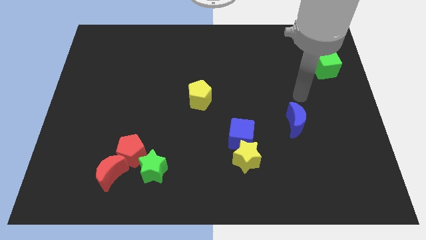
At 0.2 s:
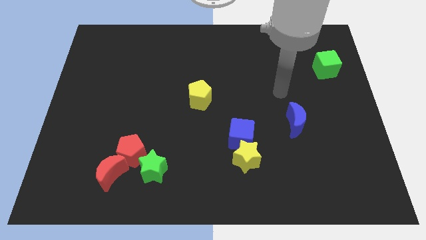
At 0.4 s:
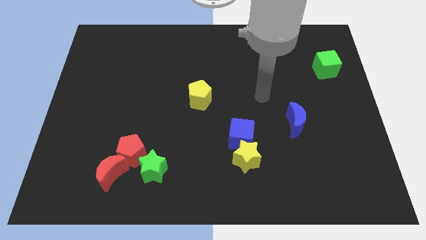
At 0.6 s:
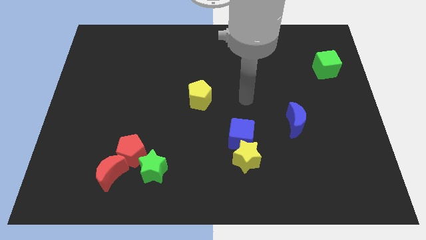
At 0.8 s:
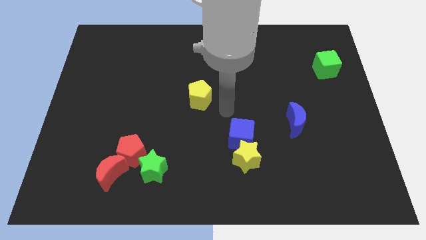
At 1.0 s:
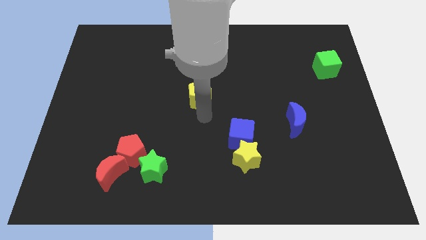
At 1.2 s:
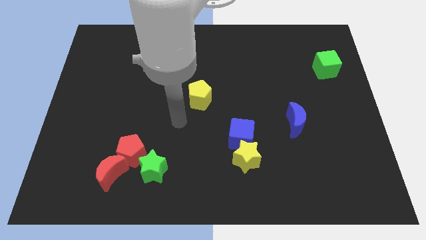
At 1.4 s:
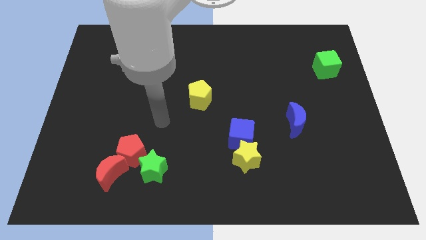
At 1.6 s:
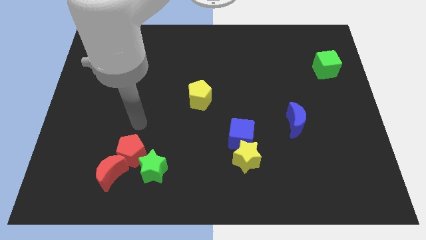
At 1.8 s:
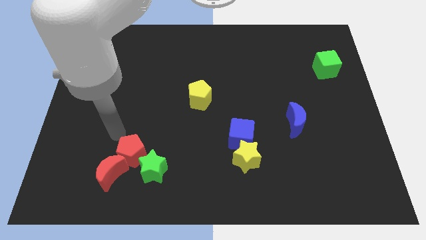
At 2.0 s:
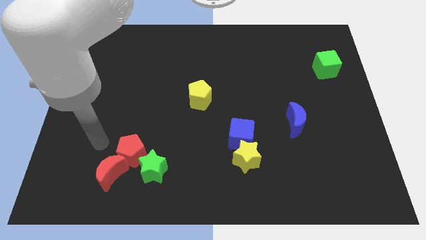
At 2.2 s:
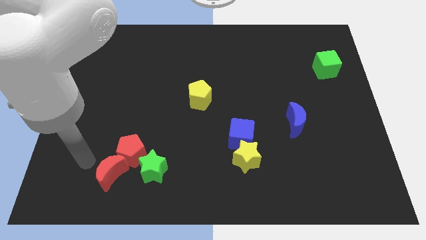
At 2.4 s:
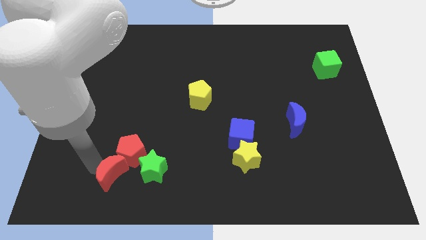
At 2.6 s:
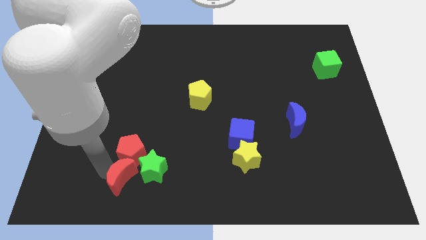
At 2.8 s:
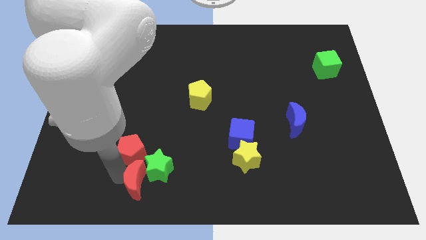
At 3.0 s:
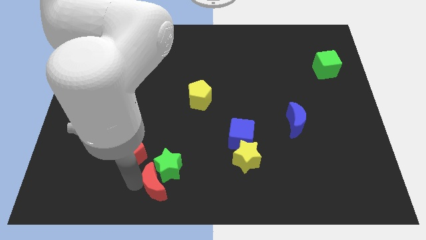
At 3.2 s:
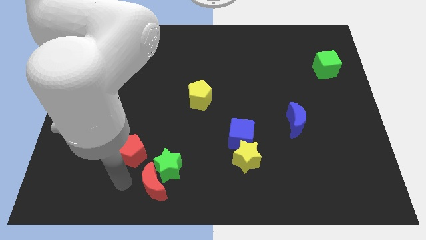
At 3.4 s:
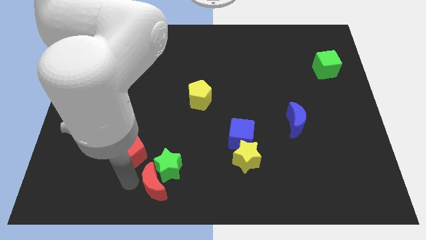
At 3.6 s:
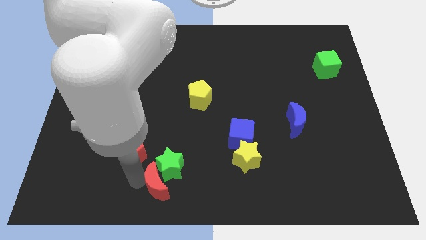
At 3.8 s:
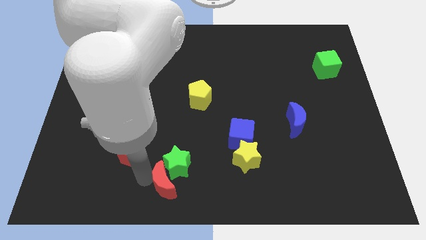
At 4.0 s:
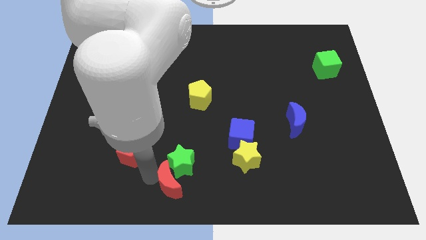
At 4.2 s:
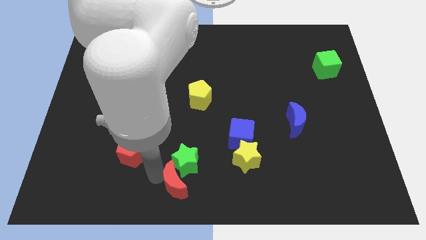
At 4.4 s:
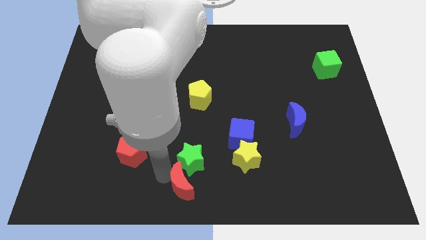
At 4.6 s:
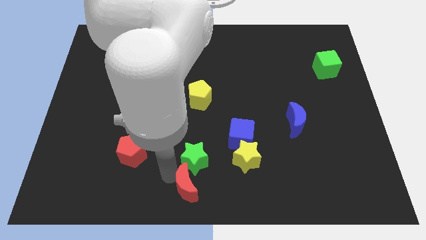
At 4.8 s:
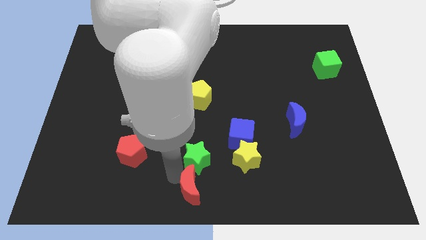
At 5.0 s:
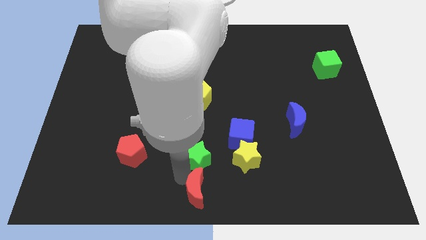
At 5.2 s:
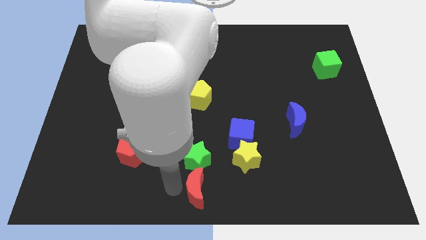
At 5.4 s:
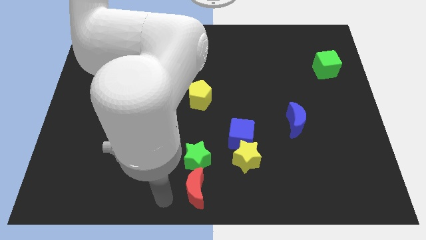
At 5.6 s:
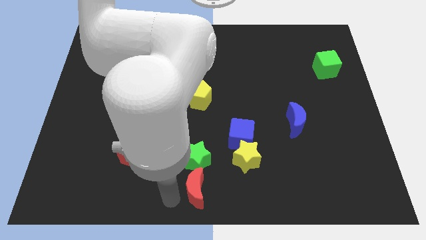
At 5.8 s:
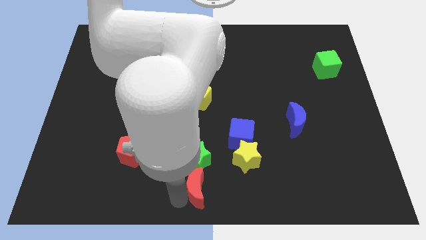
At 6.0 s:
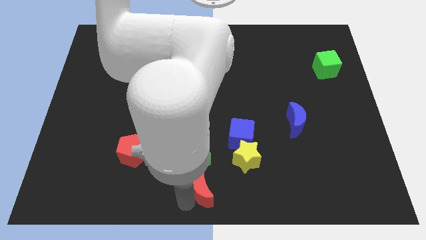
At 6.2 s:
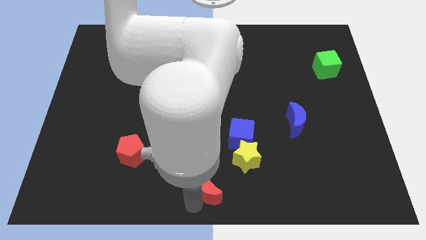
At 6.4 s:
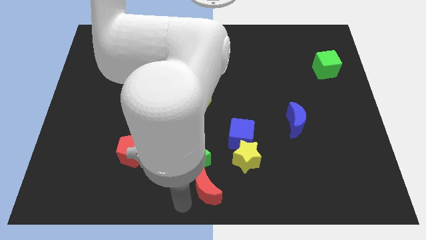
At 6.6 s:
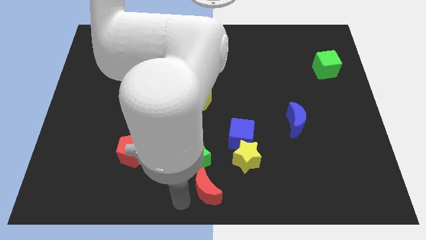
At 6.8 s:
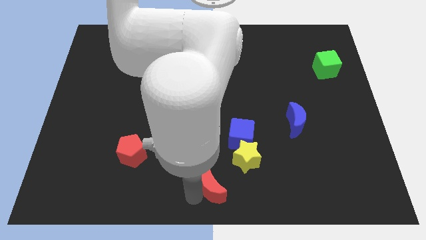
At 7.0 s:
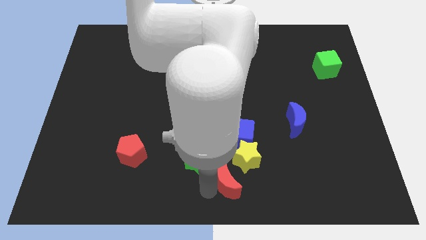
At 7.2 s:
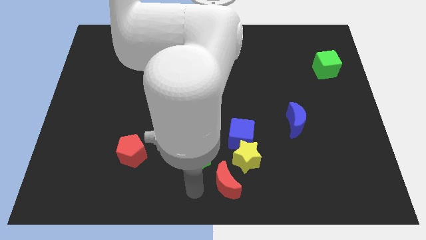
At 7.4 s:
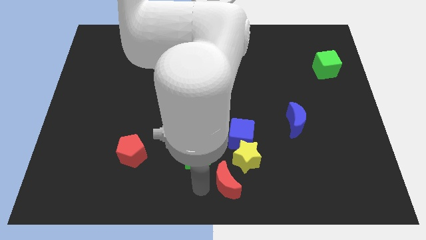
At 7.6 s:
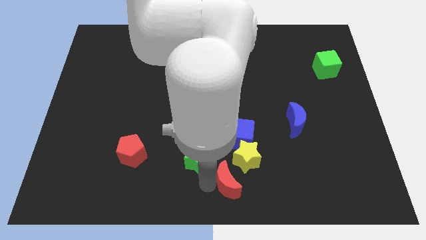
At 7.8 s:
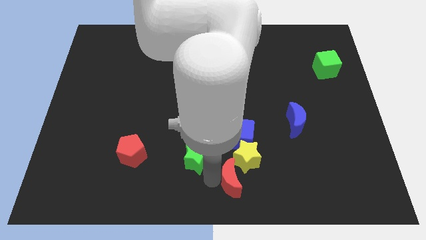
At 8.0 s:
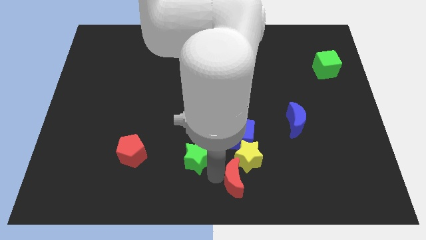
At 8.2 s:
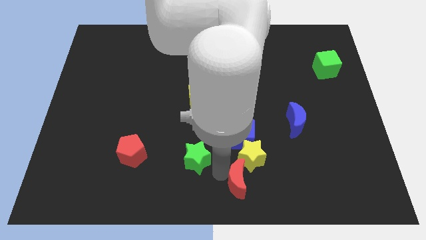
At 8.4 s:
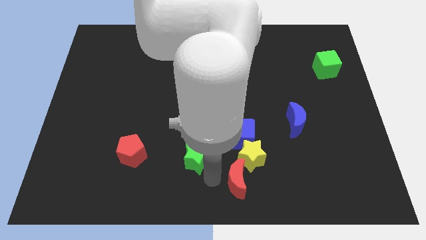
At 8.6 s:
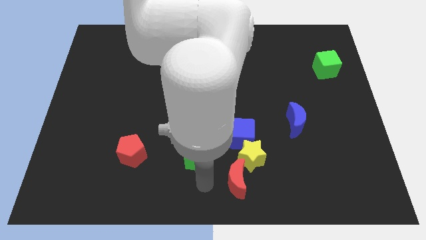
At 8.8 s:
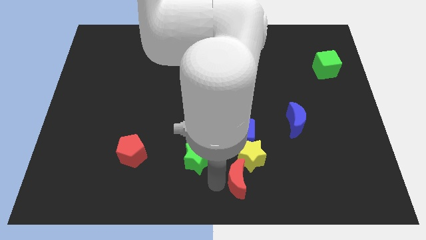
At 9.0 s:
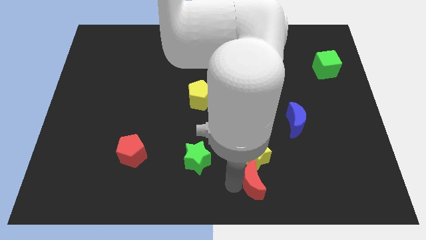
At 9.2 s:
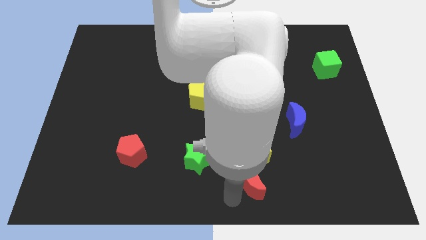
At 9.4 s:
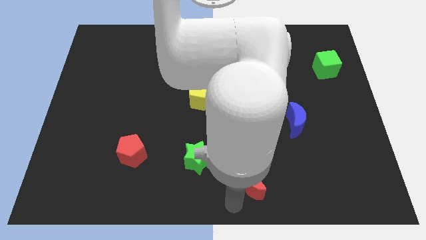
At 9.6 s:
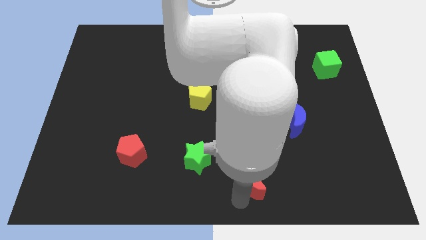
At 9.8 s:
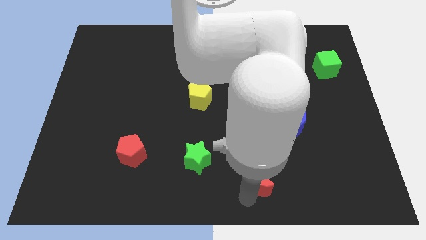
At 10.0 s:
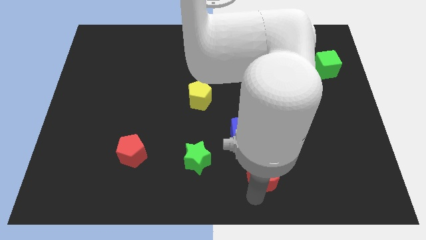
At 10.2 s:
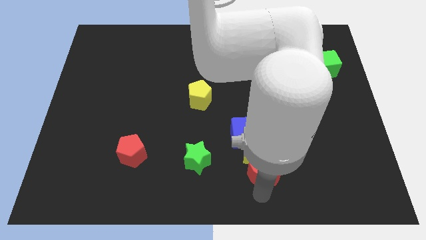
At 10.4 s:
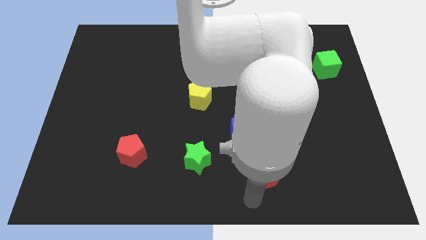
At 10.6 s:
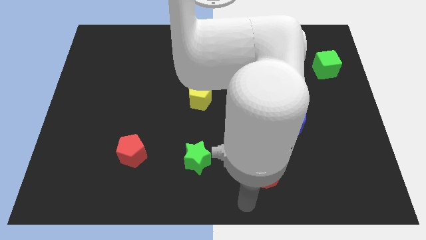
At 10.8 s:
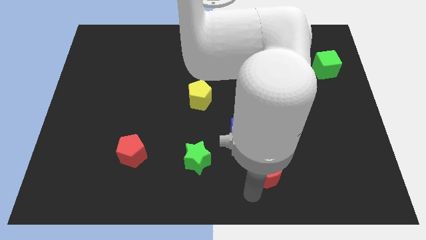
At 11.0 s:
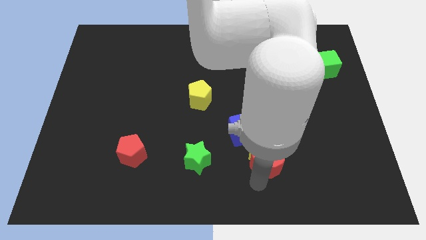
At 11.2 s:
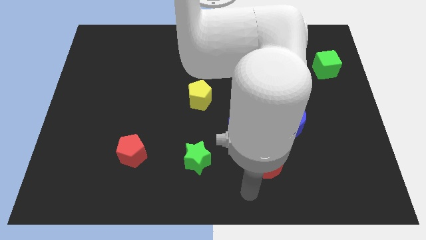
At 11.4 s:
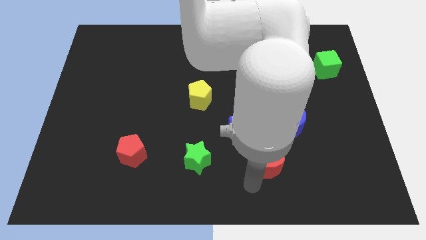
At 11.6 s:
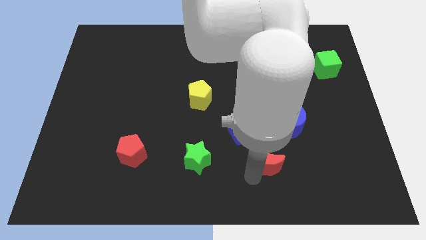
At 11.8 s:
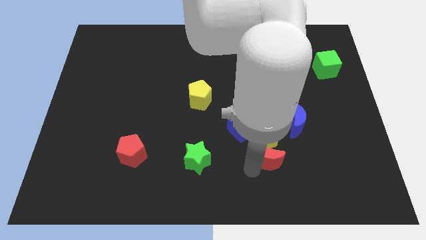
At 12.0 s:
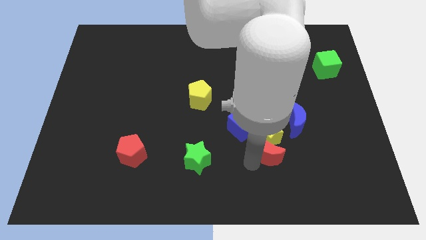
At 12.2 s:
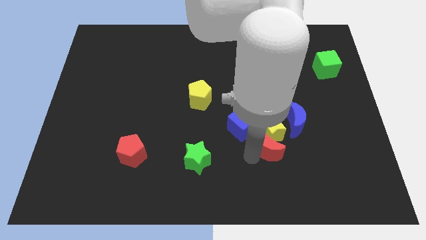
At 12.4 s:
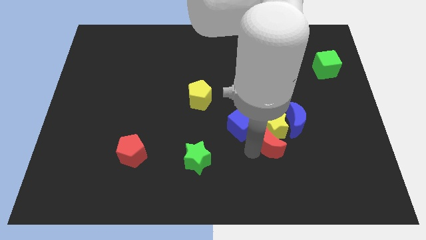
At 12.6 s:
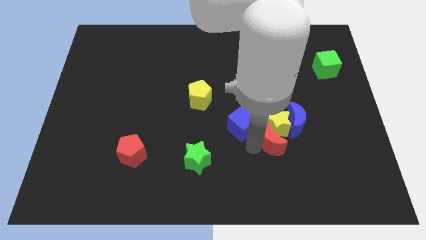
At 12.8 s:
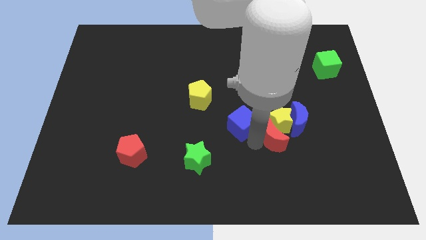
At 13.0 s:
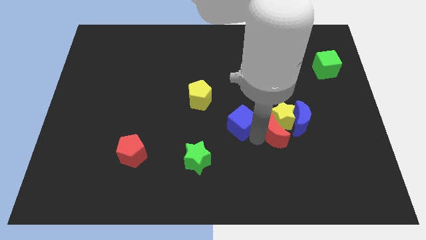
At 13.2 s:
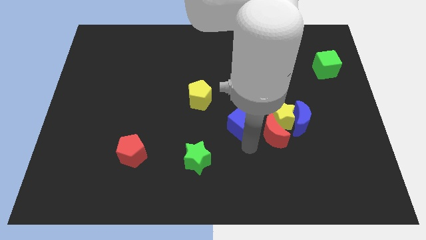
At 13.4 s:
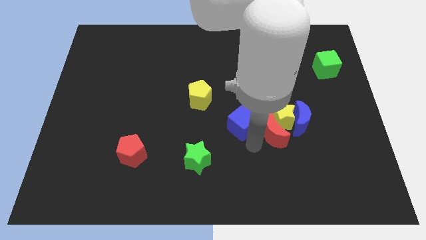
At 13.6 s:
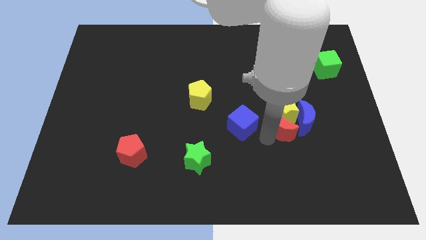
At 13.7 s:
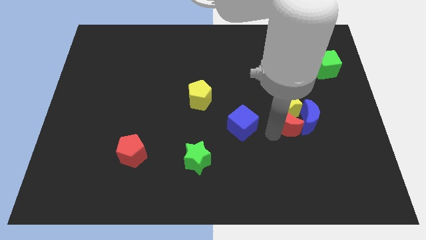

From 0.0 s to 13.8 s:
move the red moon next to the blue moon

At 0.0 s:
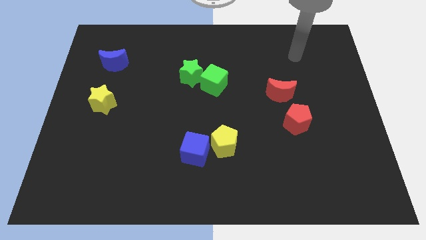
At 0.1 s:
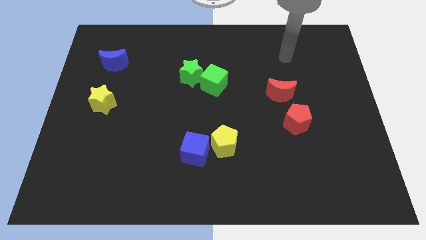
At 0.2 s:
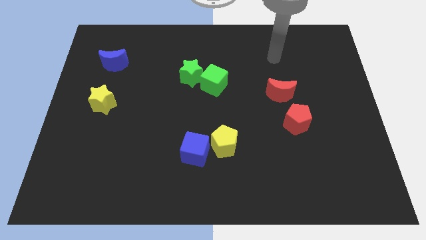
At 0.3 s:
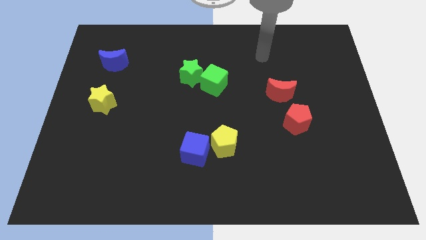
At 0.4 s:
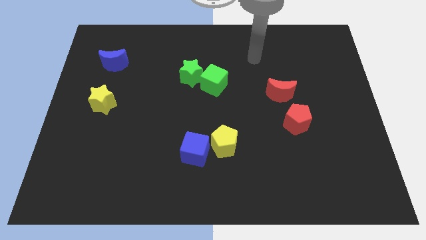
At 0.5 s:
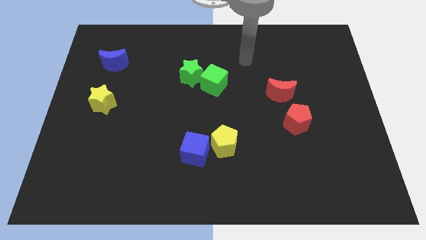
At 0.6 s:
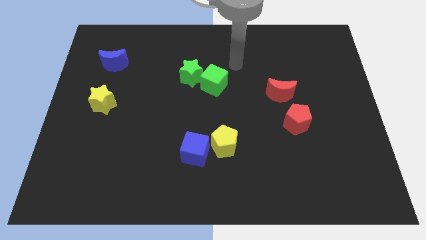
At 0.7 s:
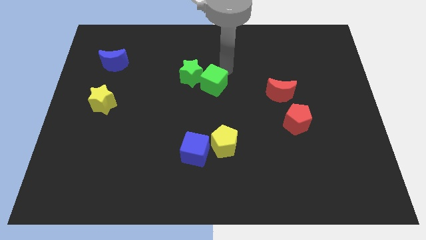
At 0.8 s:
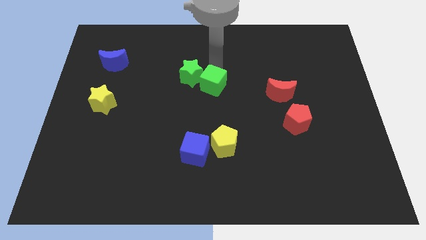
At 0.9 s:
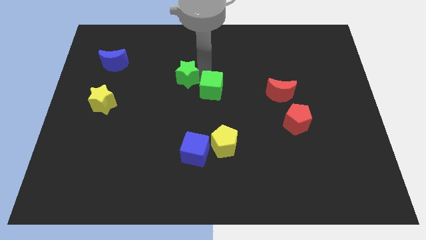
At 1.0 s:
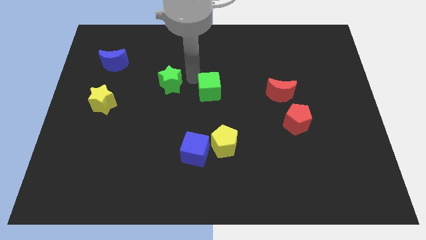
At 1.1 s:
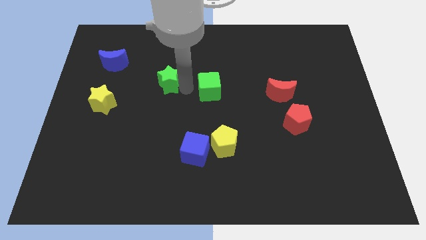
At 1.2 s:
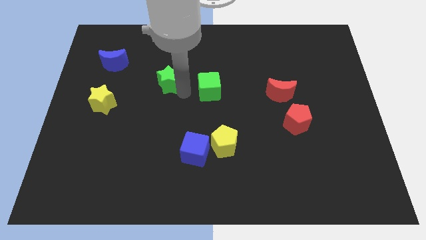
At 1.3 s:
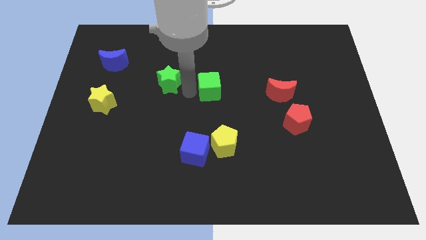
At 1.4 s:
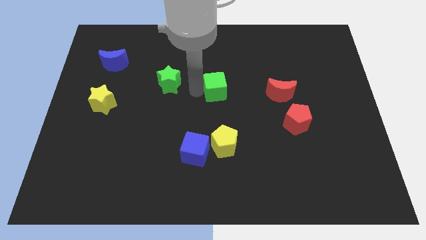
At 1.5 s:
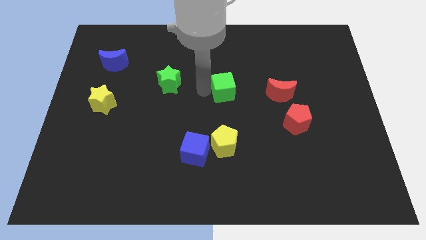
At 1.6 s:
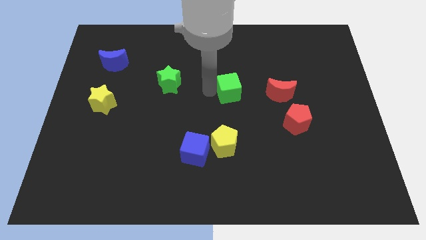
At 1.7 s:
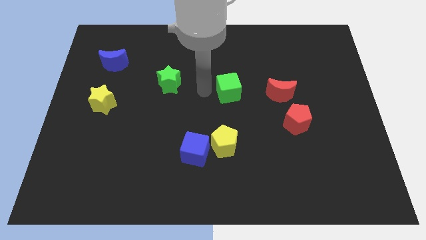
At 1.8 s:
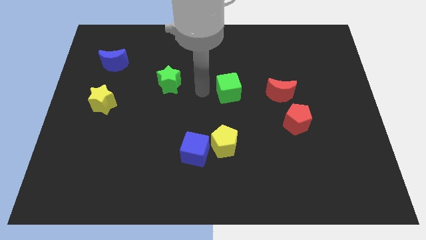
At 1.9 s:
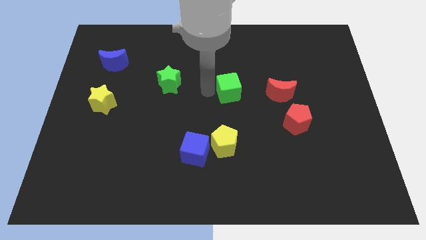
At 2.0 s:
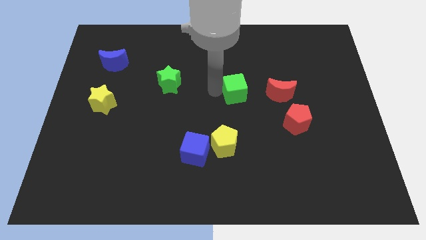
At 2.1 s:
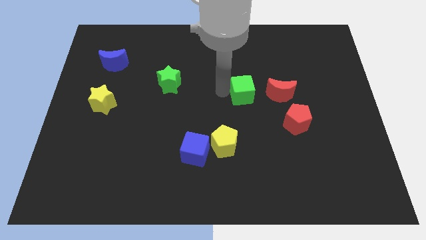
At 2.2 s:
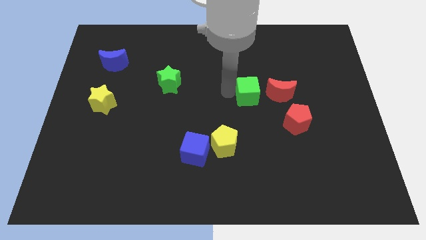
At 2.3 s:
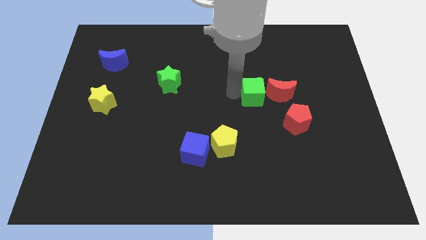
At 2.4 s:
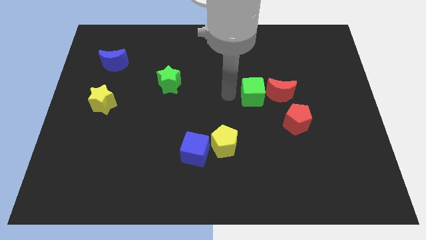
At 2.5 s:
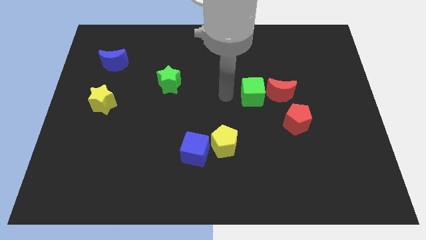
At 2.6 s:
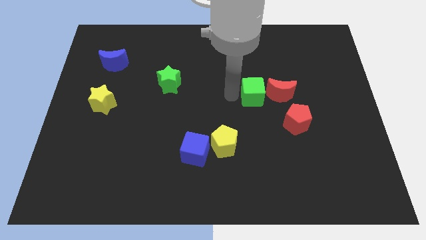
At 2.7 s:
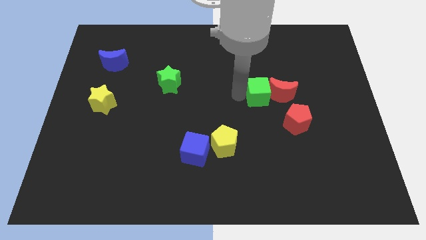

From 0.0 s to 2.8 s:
move the green cube towards the red moon
